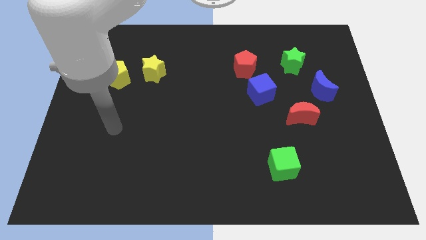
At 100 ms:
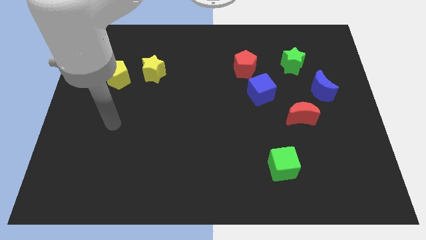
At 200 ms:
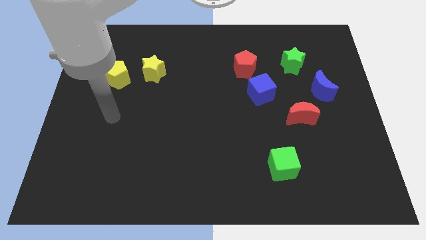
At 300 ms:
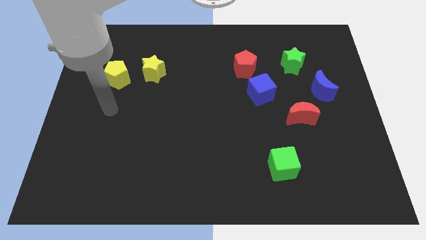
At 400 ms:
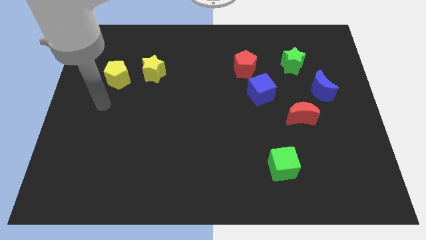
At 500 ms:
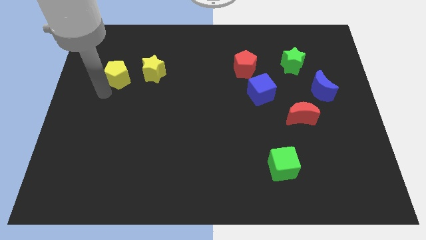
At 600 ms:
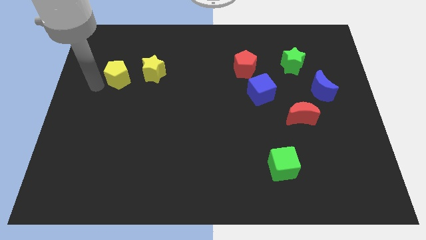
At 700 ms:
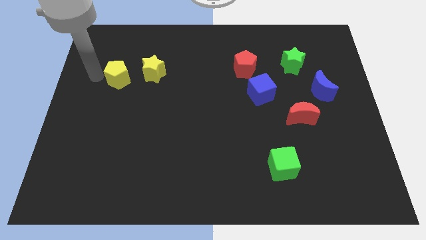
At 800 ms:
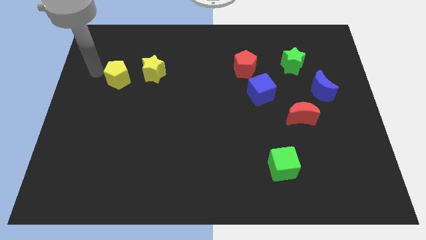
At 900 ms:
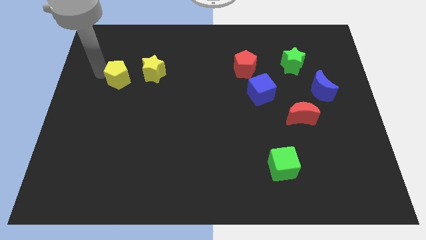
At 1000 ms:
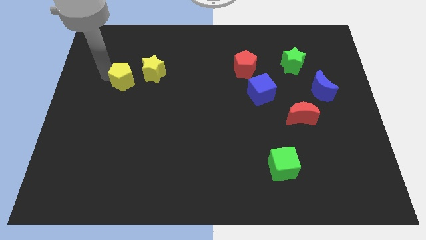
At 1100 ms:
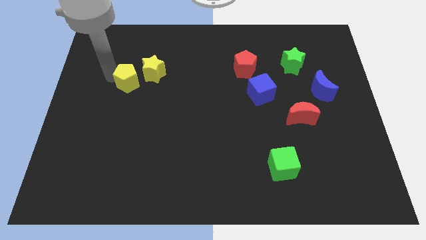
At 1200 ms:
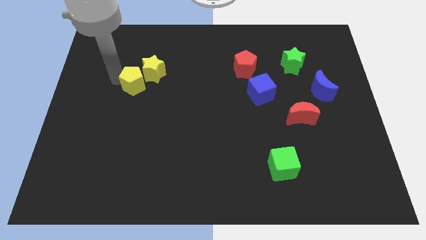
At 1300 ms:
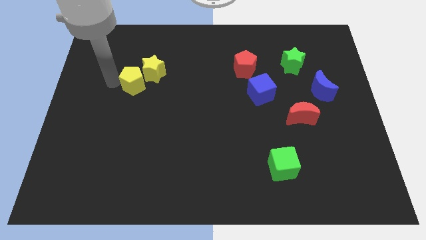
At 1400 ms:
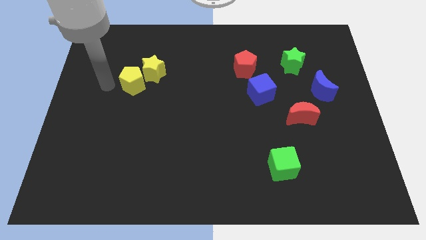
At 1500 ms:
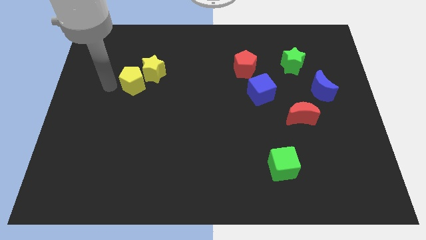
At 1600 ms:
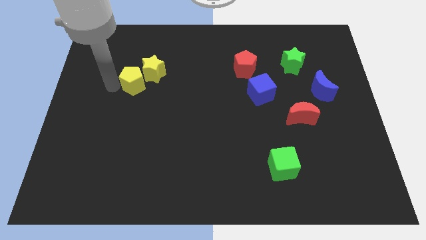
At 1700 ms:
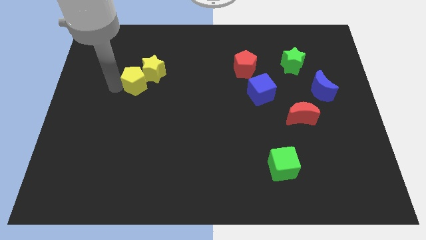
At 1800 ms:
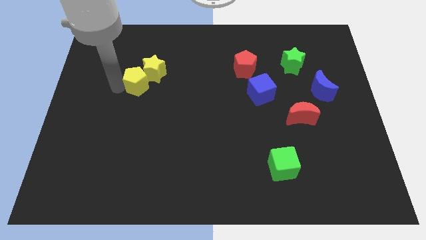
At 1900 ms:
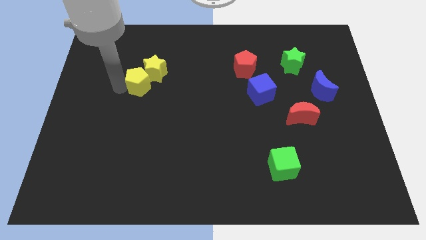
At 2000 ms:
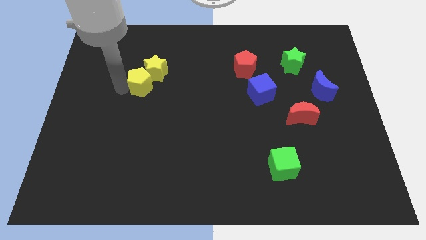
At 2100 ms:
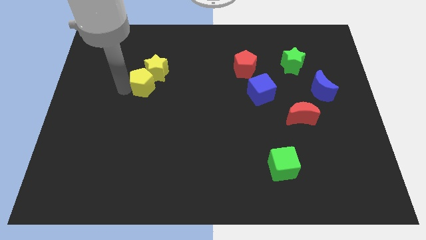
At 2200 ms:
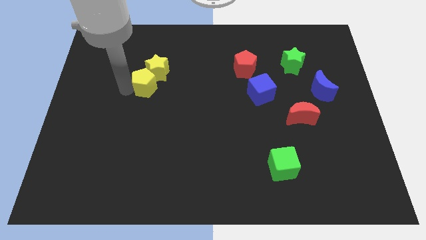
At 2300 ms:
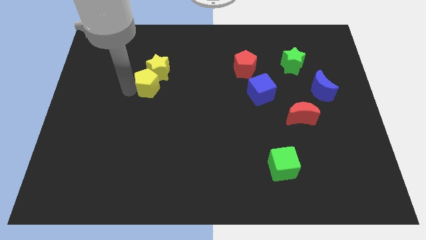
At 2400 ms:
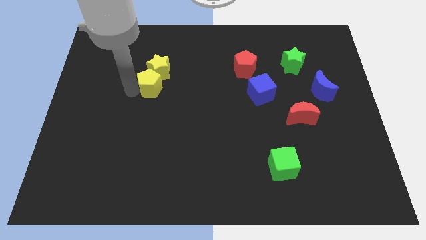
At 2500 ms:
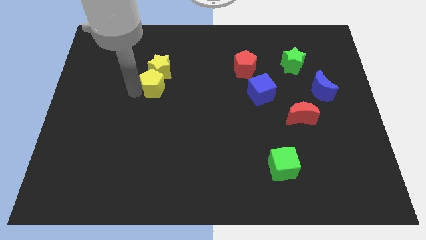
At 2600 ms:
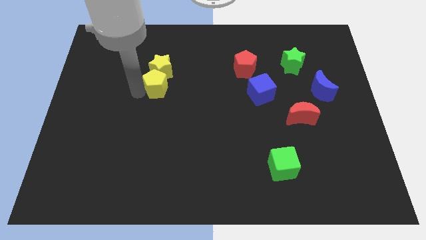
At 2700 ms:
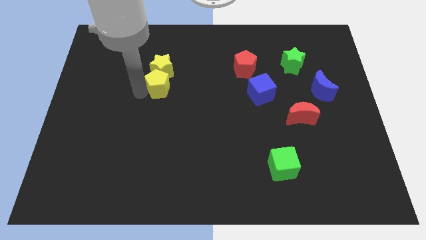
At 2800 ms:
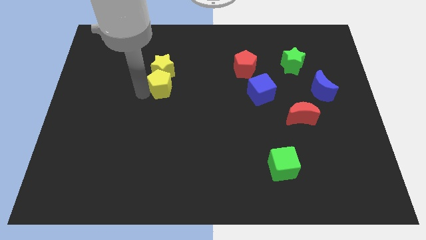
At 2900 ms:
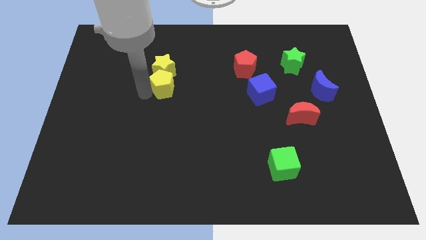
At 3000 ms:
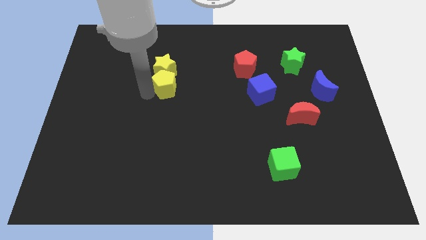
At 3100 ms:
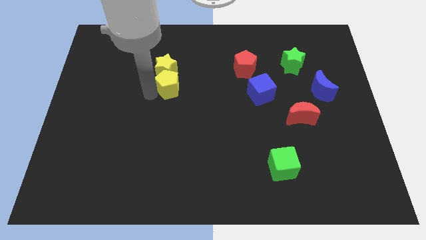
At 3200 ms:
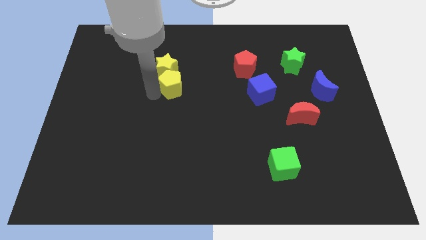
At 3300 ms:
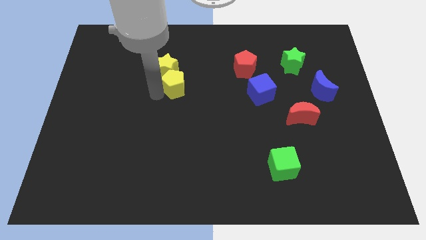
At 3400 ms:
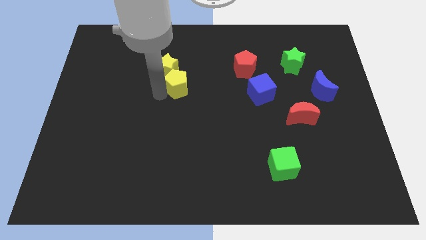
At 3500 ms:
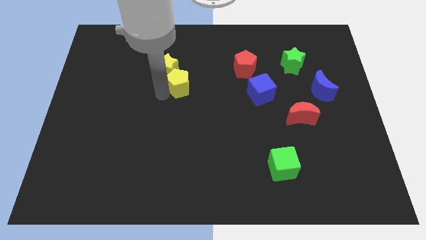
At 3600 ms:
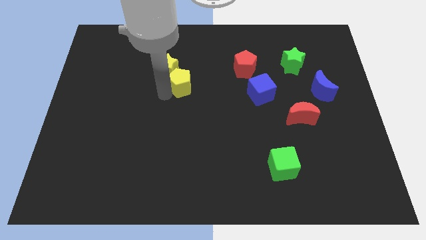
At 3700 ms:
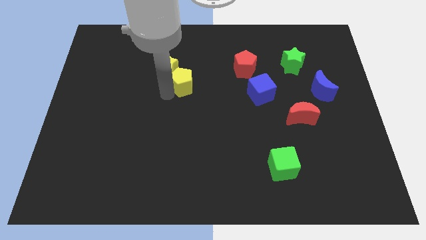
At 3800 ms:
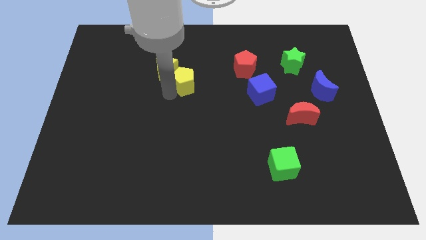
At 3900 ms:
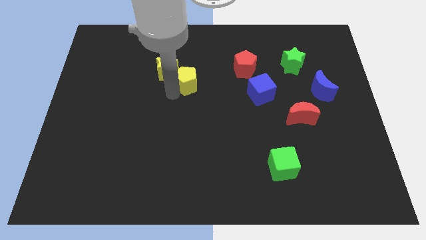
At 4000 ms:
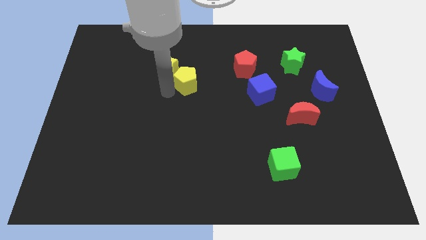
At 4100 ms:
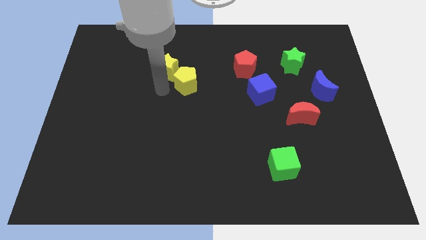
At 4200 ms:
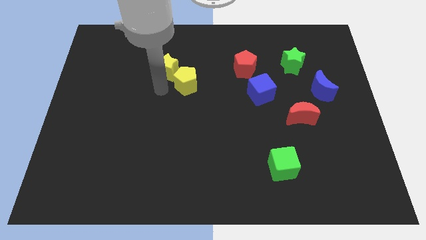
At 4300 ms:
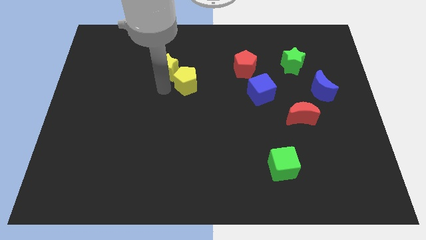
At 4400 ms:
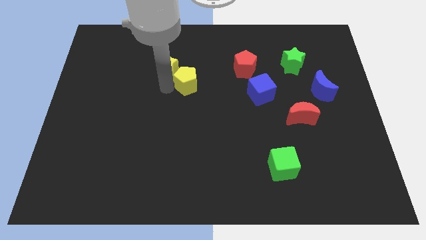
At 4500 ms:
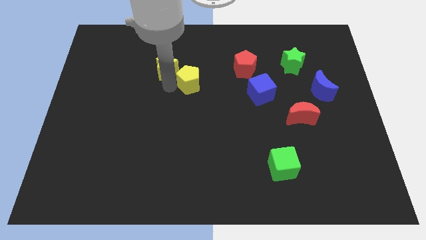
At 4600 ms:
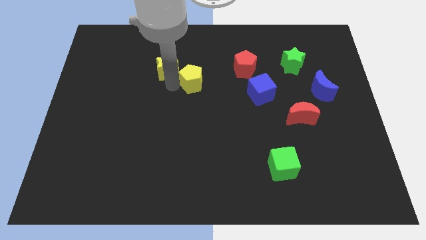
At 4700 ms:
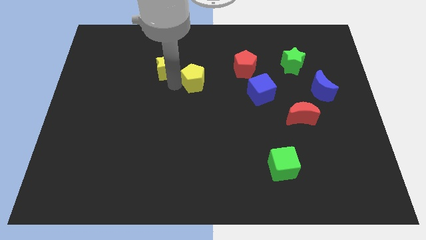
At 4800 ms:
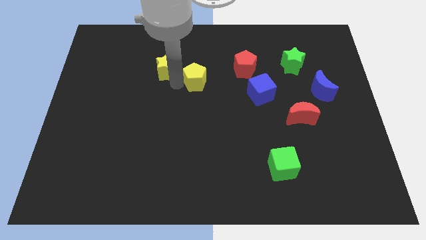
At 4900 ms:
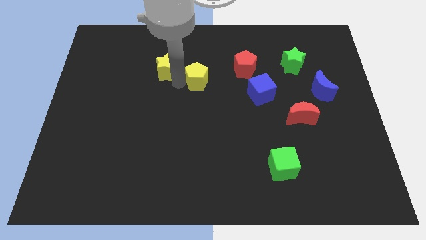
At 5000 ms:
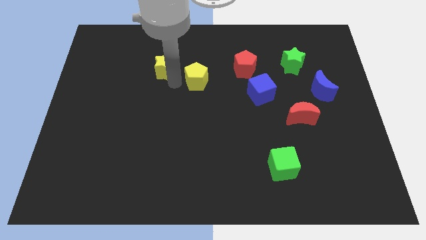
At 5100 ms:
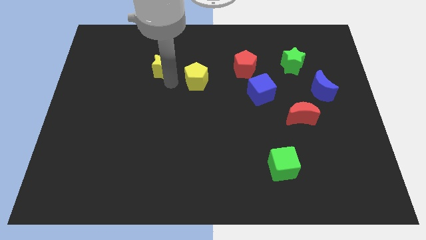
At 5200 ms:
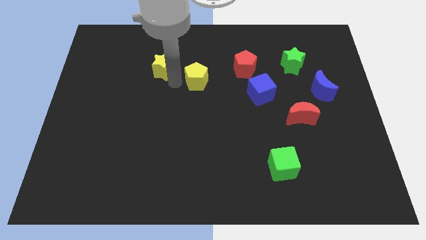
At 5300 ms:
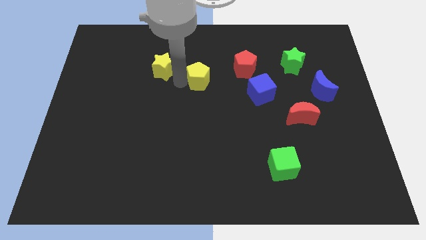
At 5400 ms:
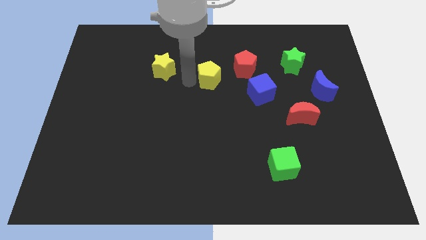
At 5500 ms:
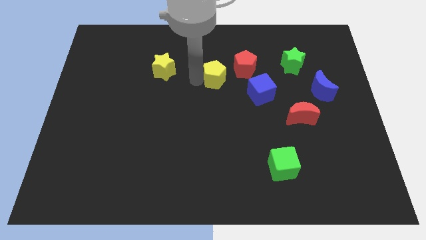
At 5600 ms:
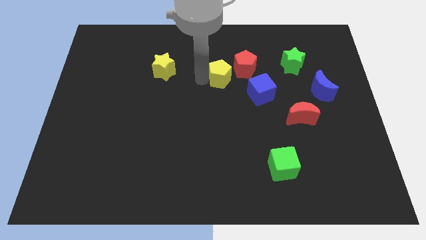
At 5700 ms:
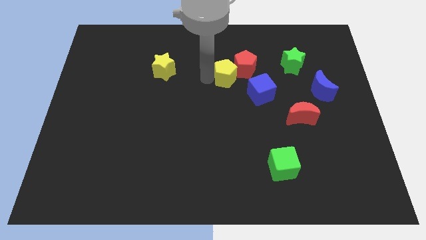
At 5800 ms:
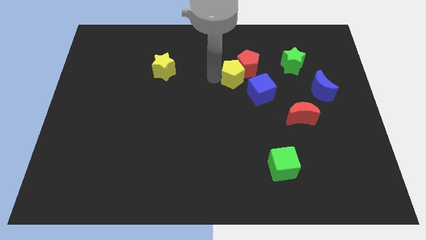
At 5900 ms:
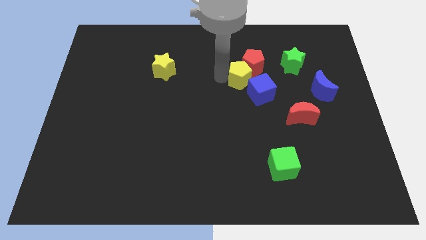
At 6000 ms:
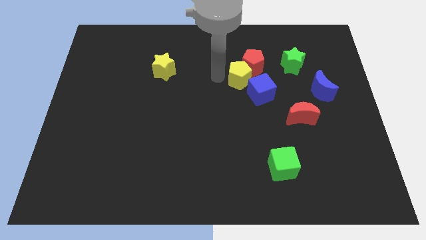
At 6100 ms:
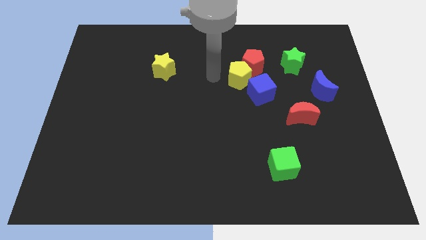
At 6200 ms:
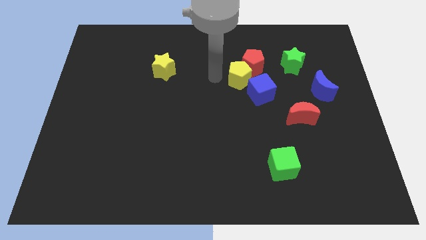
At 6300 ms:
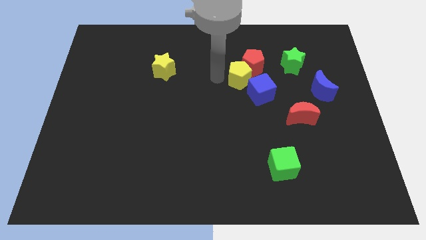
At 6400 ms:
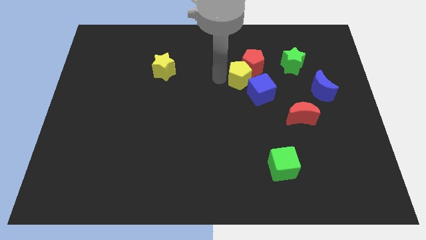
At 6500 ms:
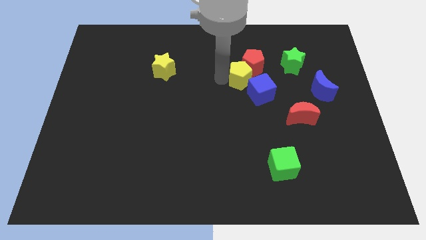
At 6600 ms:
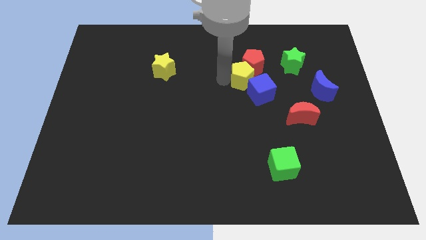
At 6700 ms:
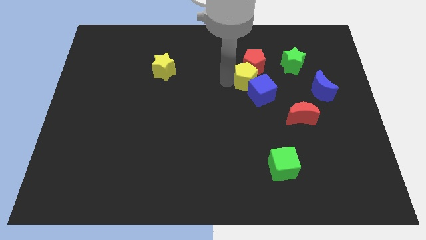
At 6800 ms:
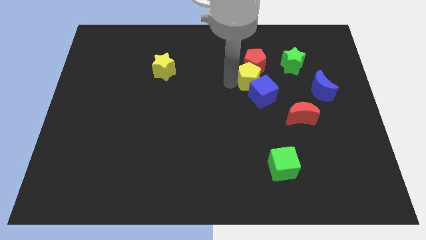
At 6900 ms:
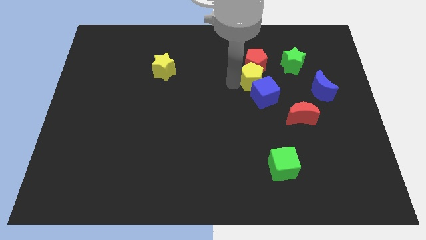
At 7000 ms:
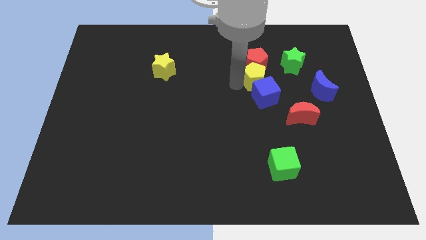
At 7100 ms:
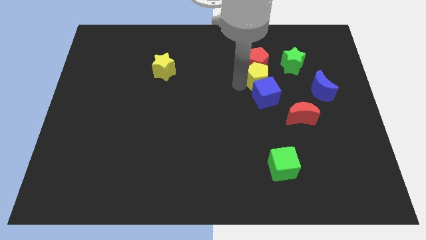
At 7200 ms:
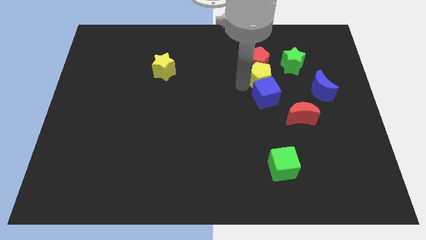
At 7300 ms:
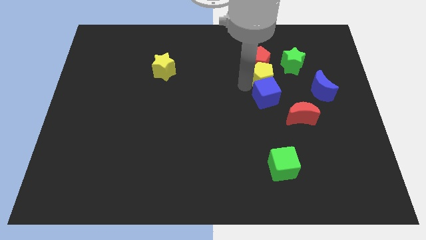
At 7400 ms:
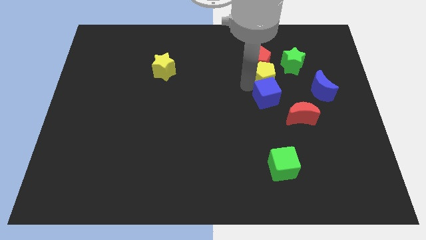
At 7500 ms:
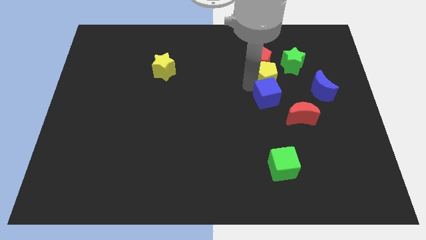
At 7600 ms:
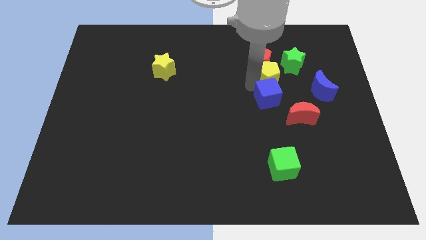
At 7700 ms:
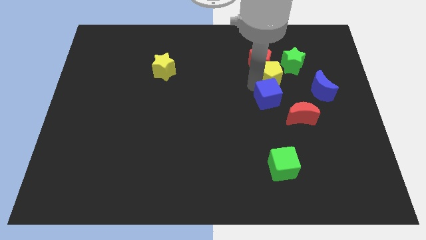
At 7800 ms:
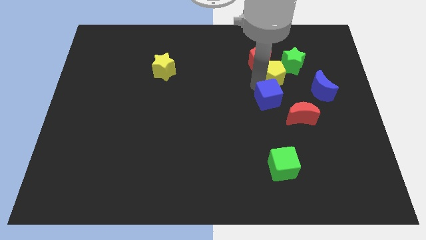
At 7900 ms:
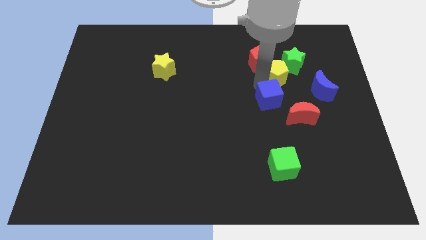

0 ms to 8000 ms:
slide the yellow pentagon close to the green star
